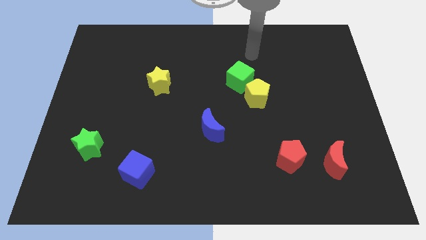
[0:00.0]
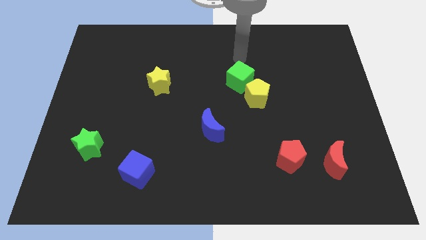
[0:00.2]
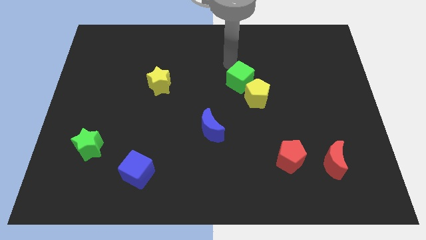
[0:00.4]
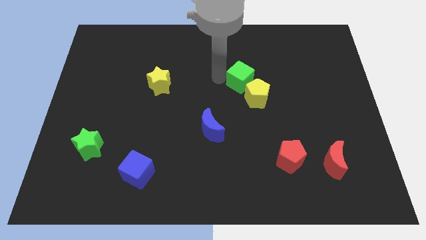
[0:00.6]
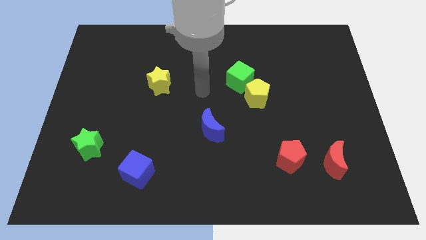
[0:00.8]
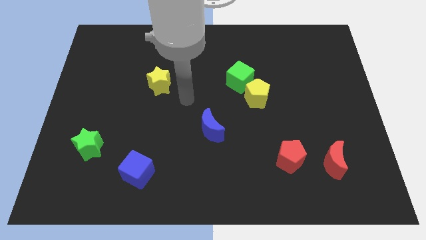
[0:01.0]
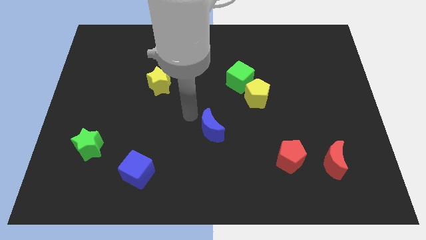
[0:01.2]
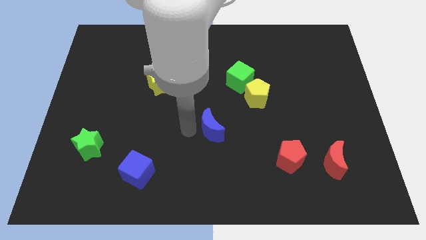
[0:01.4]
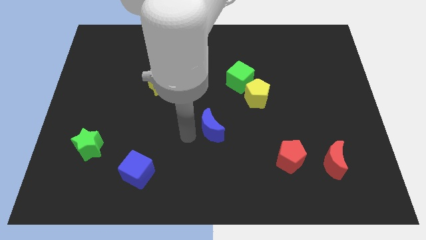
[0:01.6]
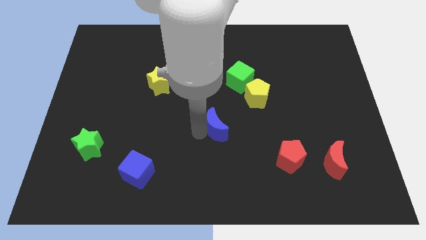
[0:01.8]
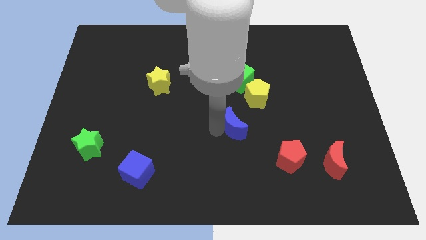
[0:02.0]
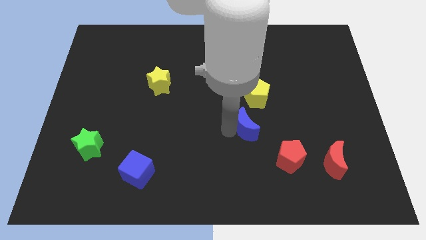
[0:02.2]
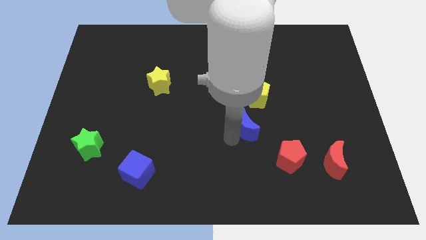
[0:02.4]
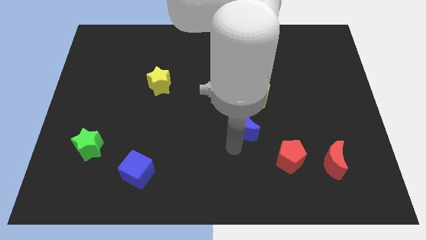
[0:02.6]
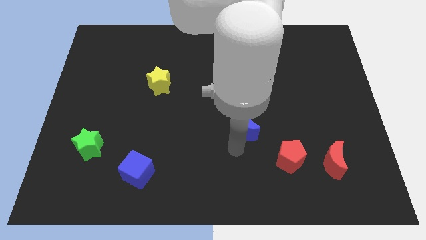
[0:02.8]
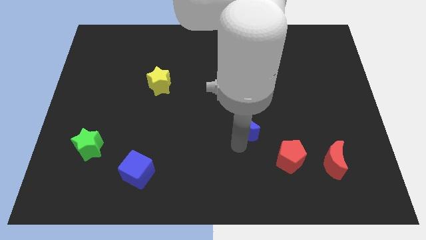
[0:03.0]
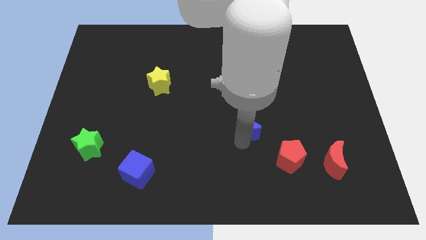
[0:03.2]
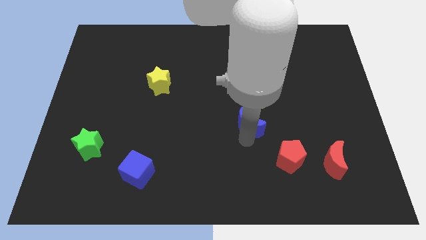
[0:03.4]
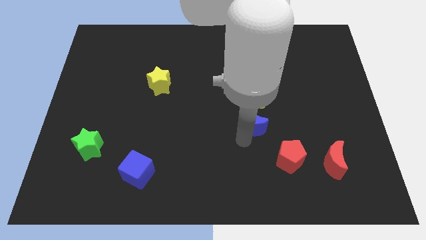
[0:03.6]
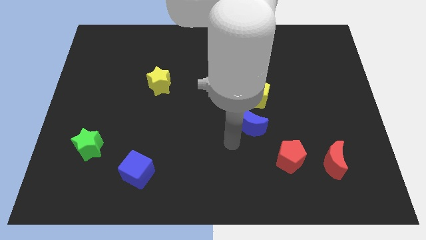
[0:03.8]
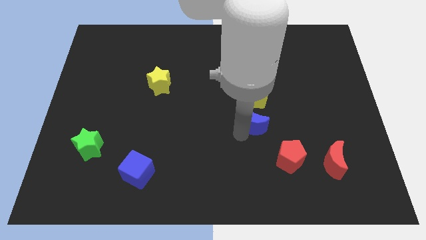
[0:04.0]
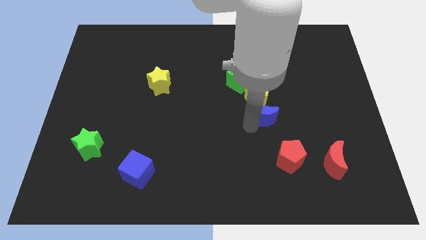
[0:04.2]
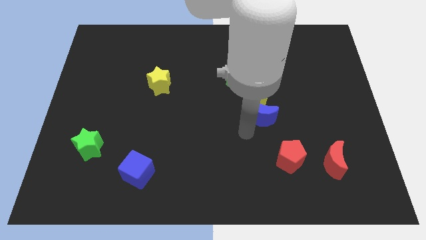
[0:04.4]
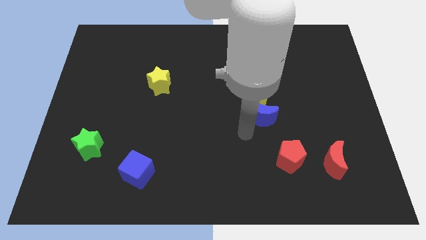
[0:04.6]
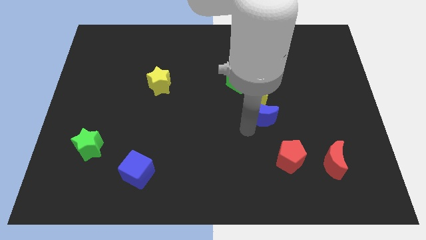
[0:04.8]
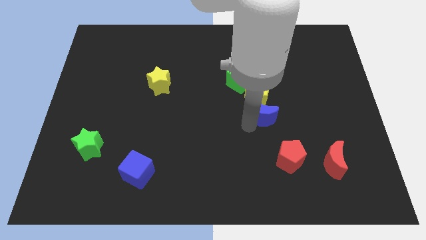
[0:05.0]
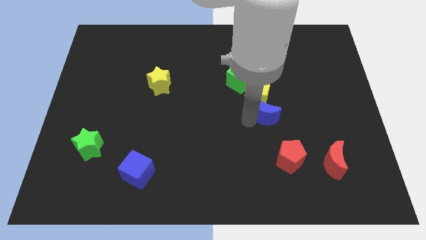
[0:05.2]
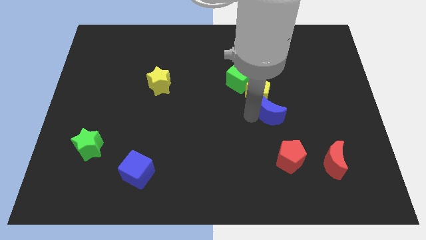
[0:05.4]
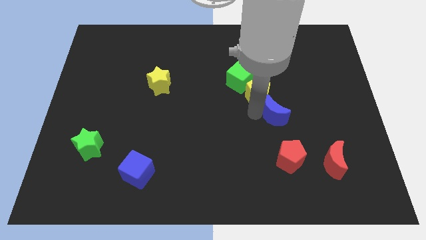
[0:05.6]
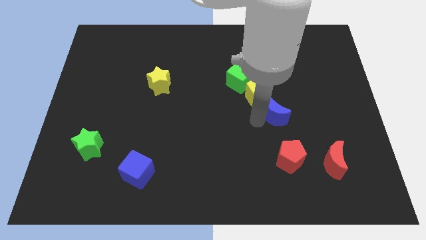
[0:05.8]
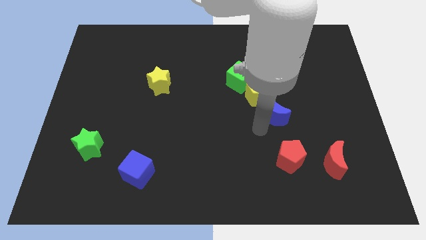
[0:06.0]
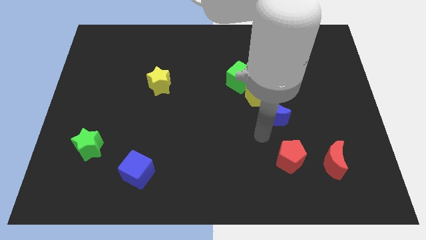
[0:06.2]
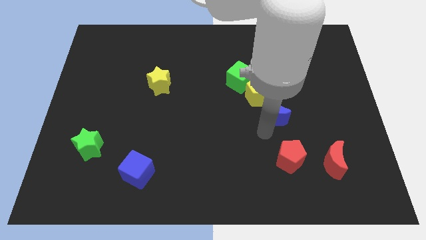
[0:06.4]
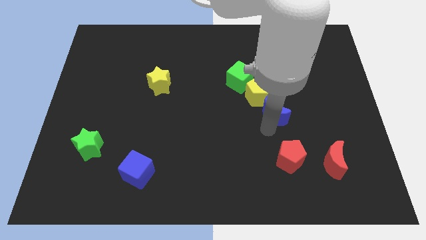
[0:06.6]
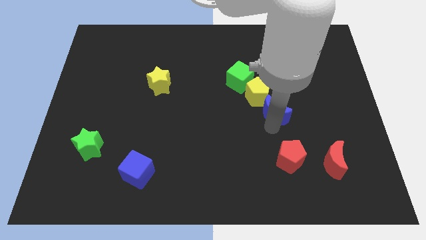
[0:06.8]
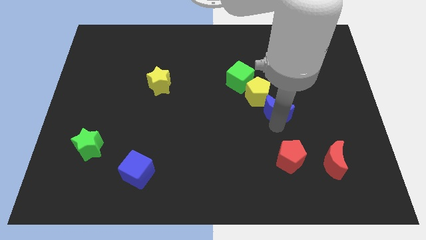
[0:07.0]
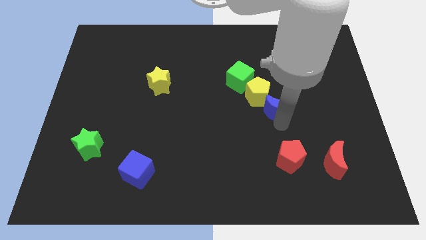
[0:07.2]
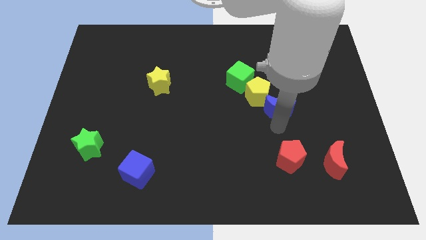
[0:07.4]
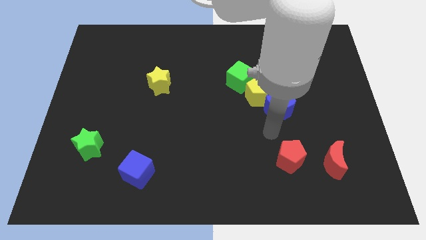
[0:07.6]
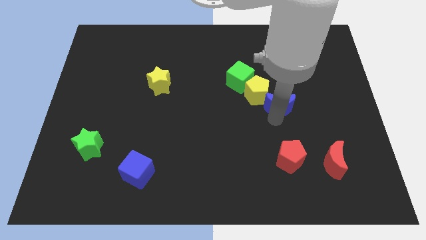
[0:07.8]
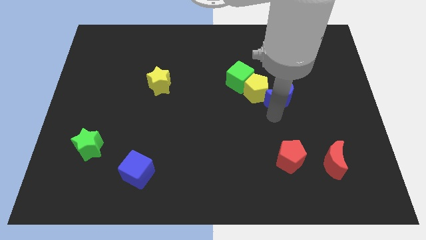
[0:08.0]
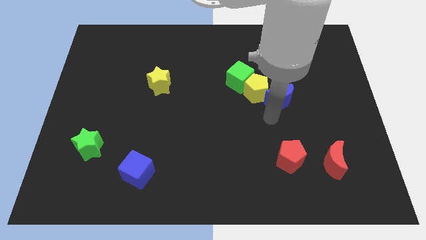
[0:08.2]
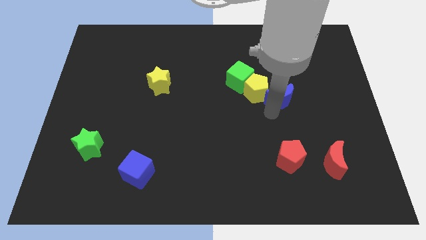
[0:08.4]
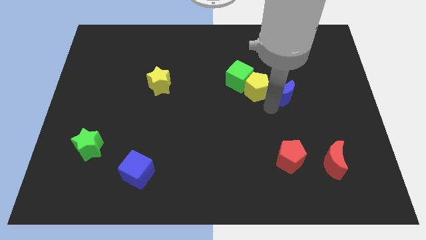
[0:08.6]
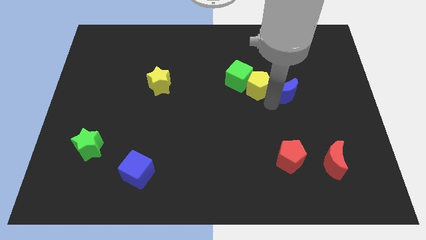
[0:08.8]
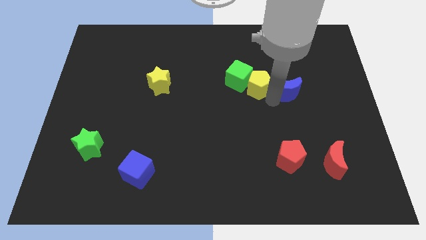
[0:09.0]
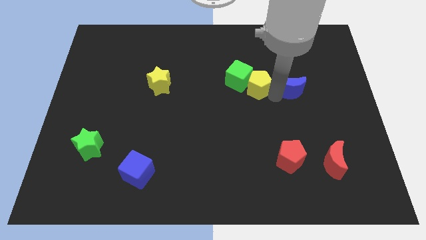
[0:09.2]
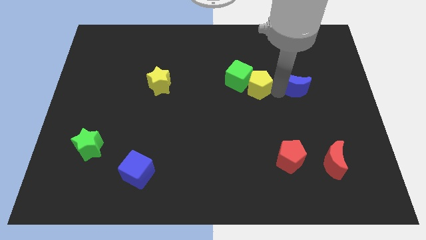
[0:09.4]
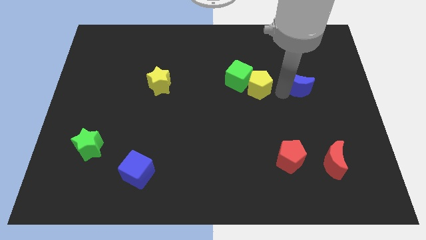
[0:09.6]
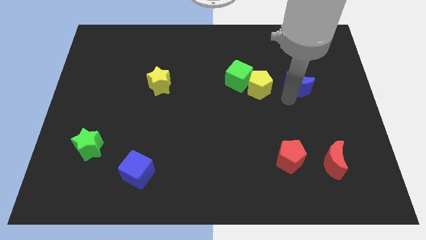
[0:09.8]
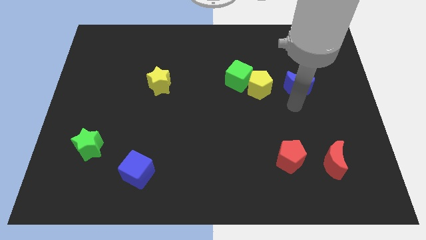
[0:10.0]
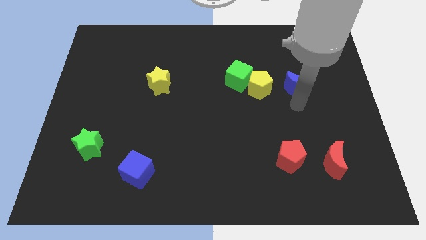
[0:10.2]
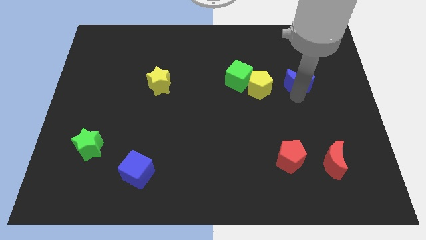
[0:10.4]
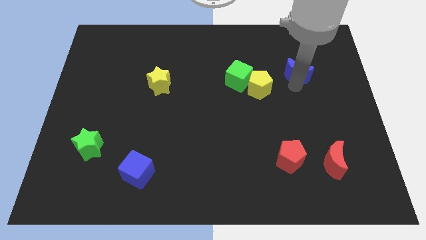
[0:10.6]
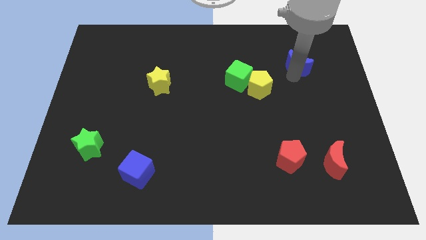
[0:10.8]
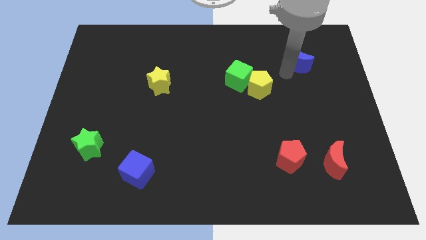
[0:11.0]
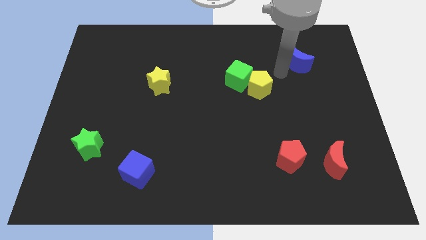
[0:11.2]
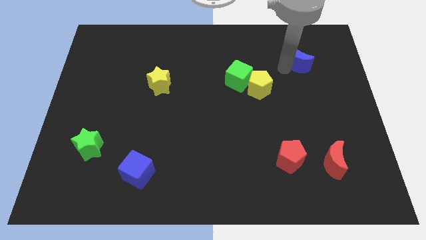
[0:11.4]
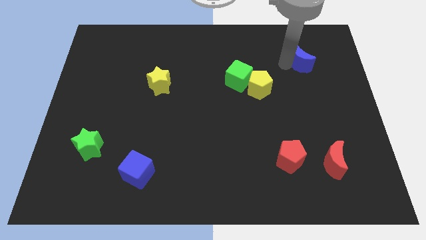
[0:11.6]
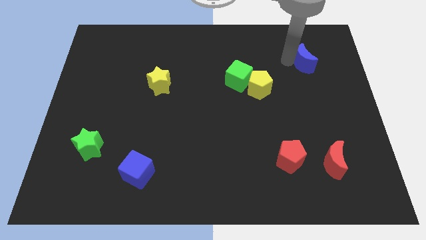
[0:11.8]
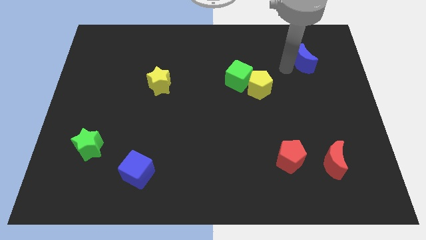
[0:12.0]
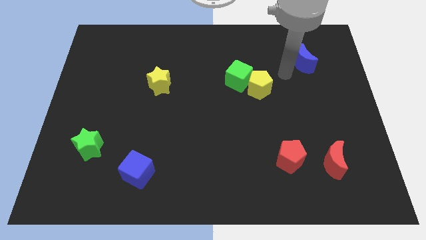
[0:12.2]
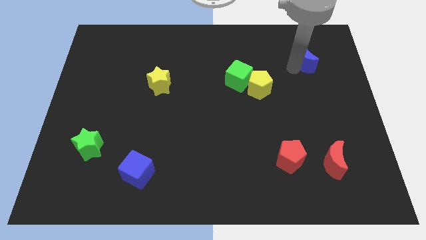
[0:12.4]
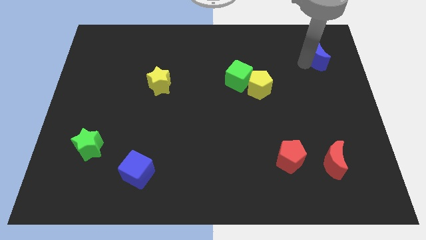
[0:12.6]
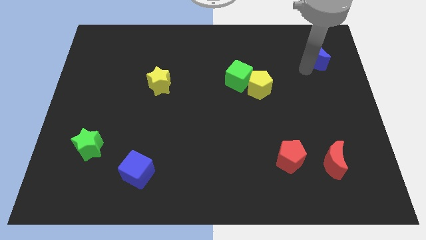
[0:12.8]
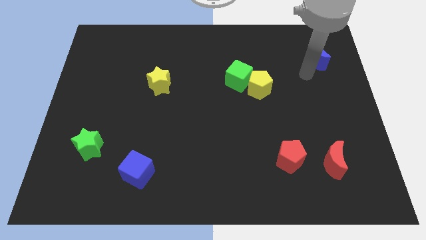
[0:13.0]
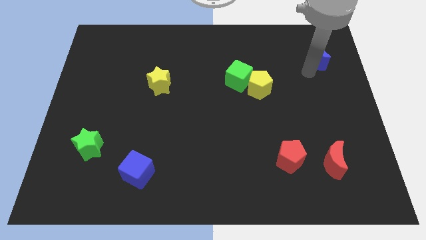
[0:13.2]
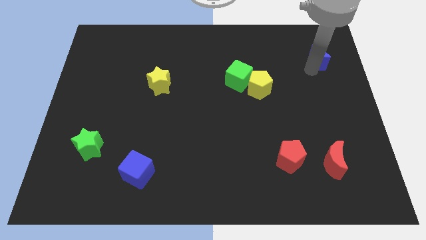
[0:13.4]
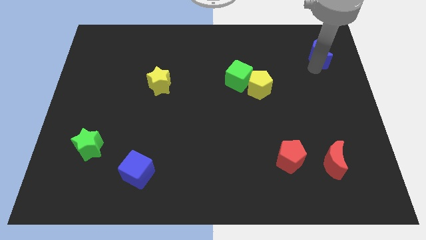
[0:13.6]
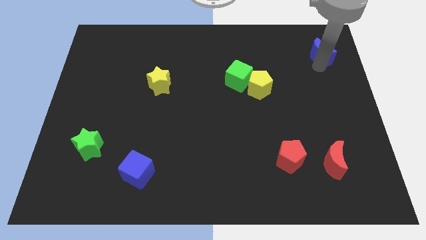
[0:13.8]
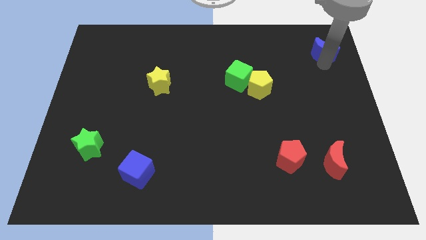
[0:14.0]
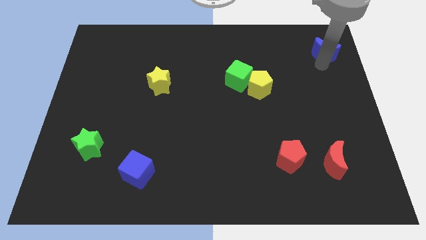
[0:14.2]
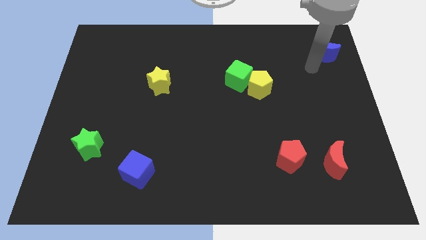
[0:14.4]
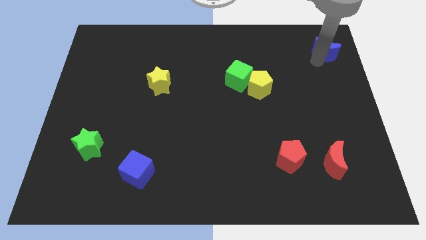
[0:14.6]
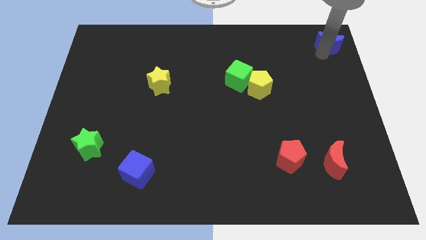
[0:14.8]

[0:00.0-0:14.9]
put the blue moon to the top right
